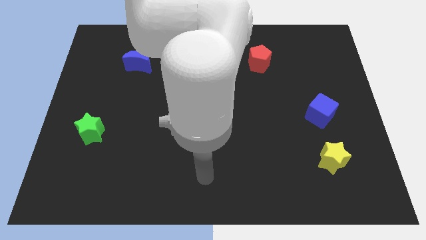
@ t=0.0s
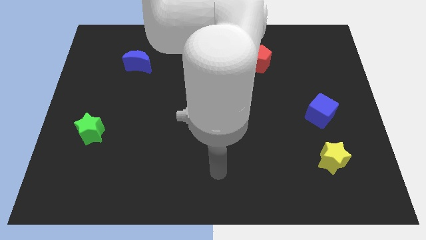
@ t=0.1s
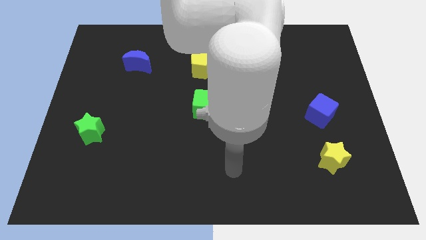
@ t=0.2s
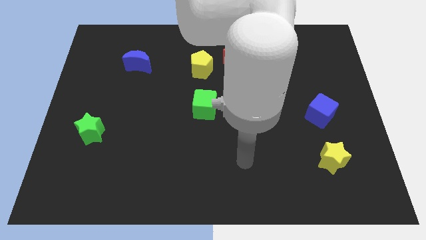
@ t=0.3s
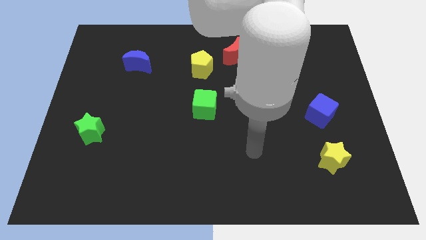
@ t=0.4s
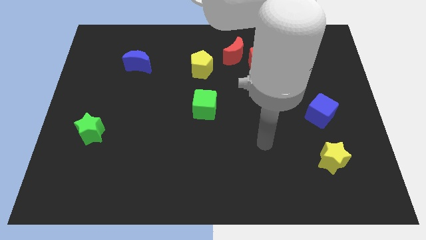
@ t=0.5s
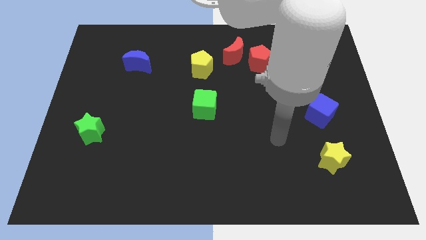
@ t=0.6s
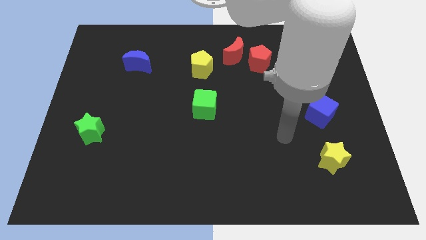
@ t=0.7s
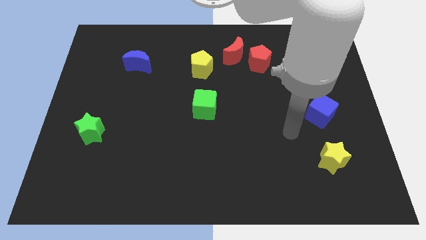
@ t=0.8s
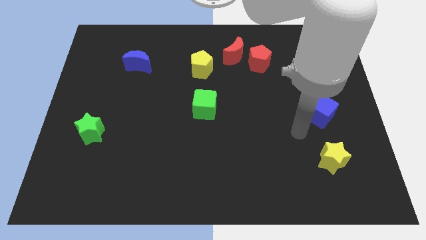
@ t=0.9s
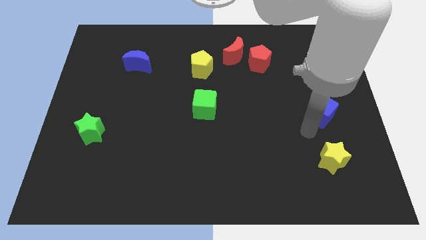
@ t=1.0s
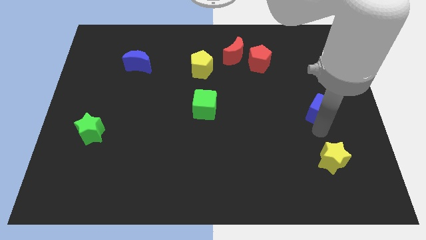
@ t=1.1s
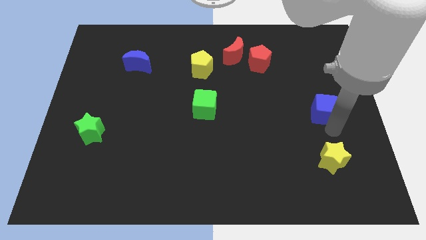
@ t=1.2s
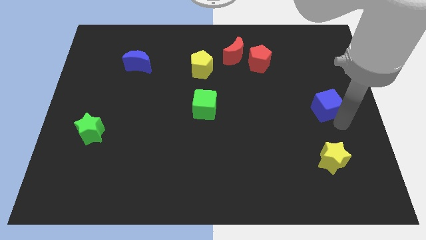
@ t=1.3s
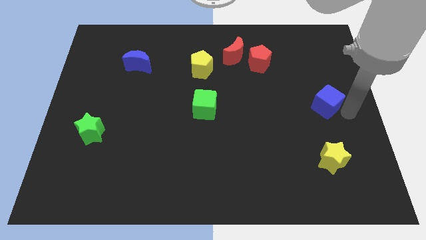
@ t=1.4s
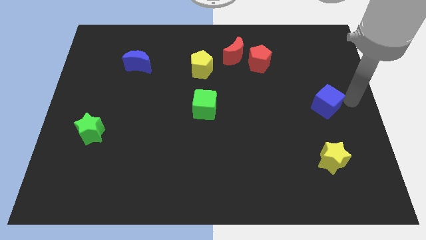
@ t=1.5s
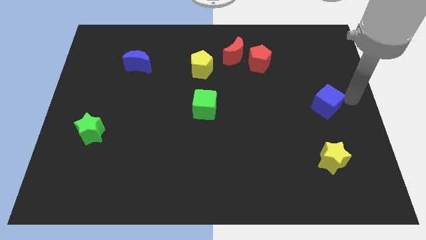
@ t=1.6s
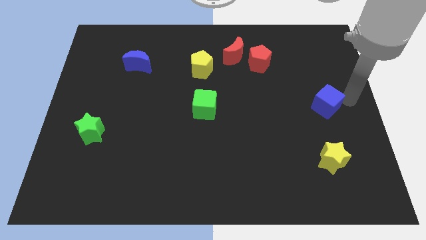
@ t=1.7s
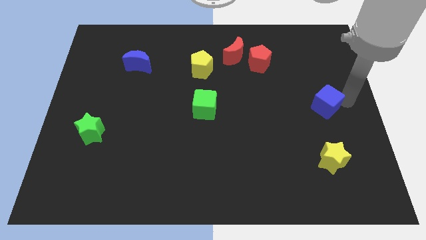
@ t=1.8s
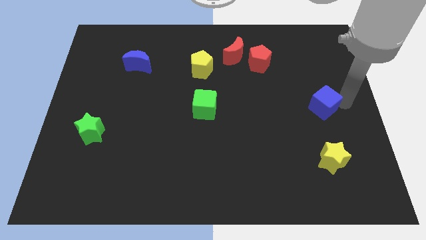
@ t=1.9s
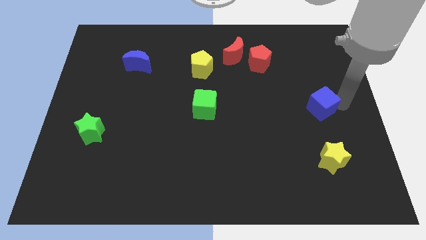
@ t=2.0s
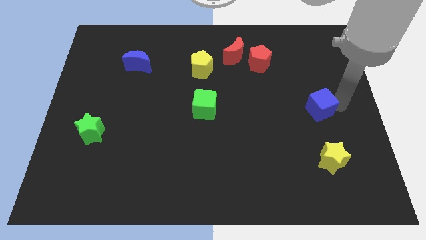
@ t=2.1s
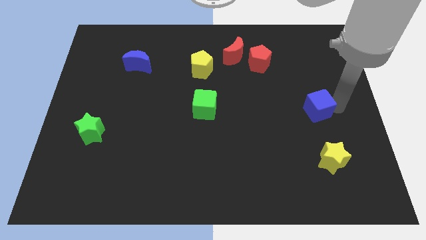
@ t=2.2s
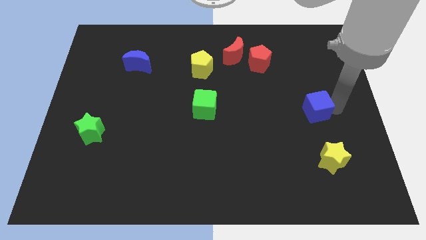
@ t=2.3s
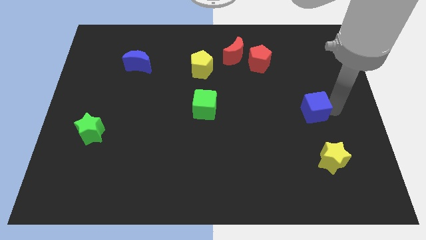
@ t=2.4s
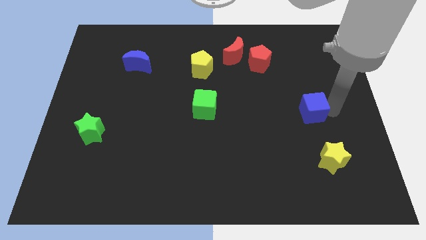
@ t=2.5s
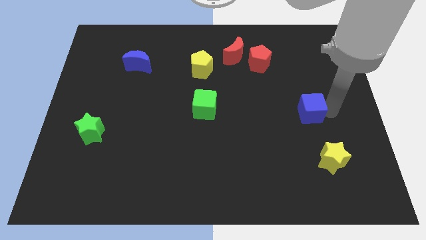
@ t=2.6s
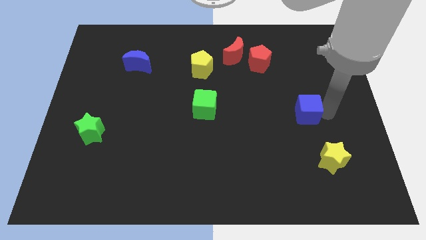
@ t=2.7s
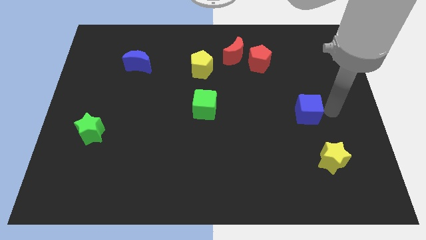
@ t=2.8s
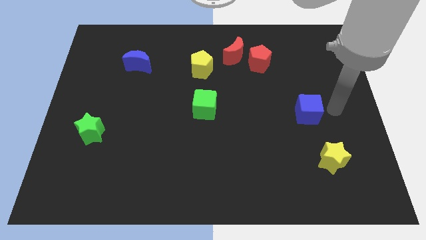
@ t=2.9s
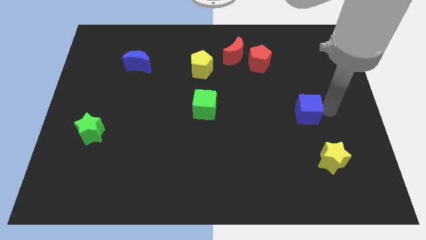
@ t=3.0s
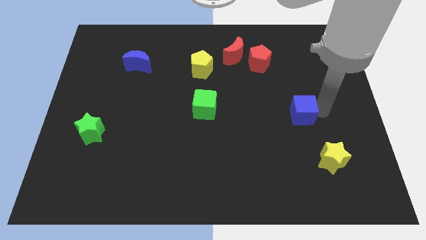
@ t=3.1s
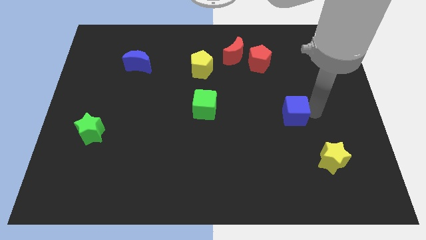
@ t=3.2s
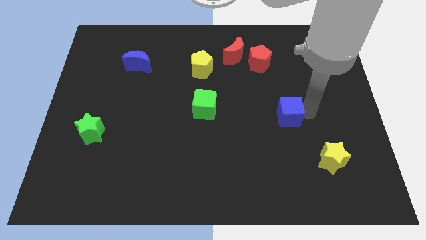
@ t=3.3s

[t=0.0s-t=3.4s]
slide the blue cube slightly to the left

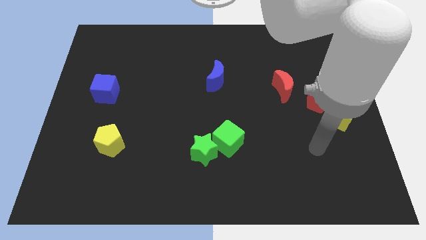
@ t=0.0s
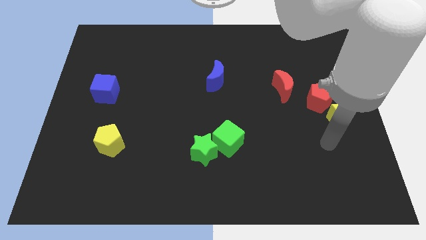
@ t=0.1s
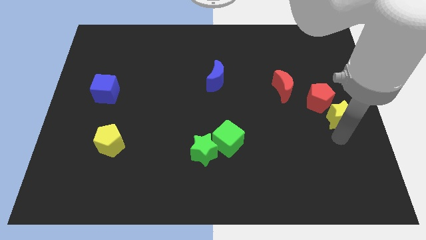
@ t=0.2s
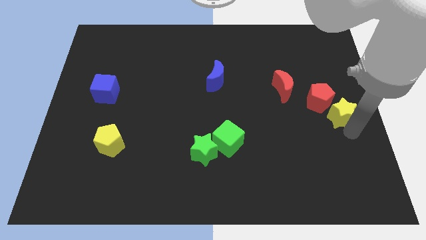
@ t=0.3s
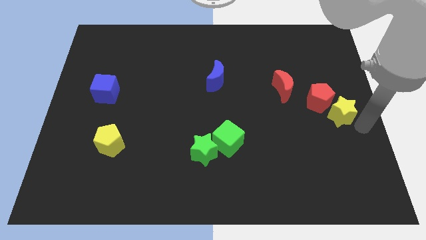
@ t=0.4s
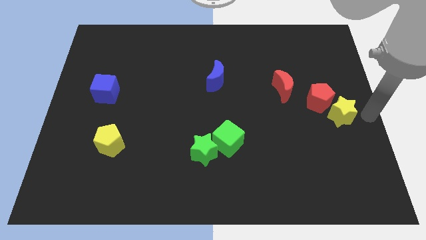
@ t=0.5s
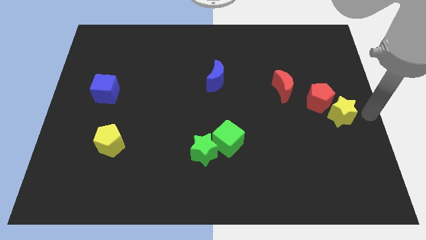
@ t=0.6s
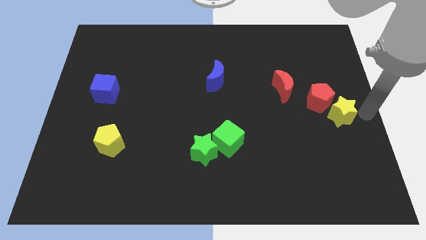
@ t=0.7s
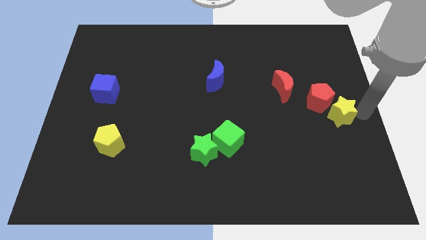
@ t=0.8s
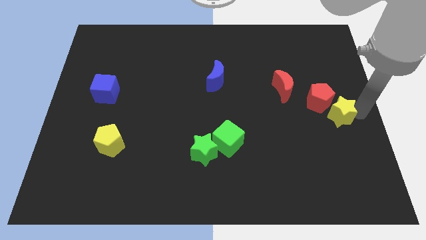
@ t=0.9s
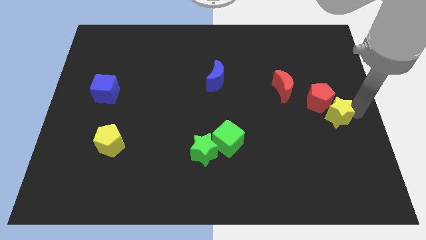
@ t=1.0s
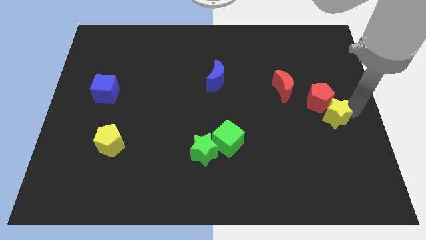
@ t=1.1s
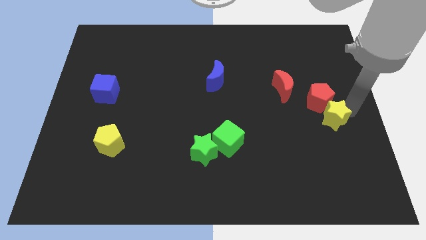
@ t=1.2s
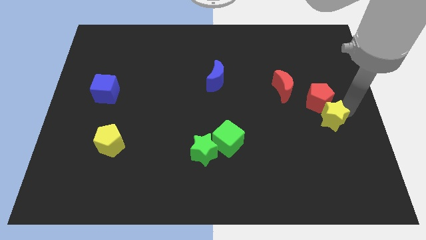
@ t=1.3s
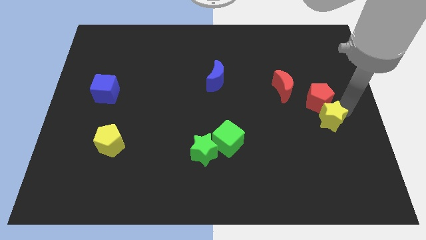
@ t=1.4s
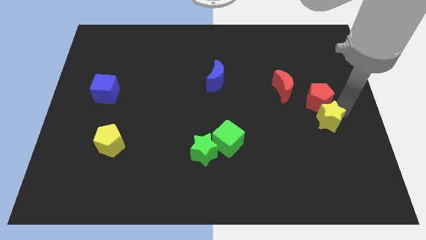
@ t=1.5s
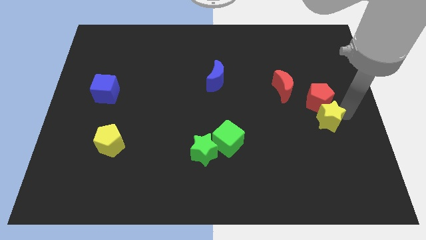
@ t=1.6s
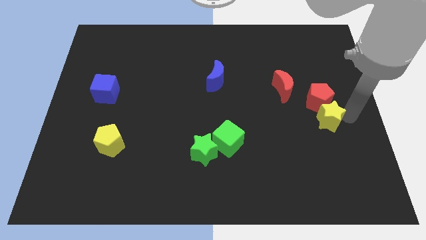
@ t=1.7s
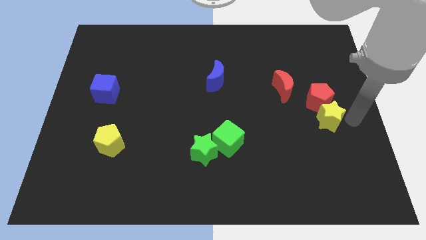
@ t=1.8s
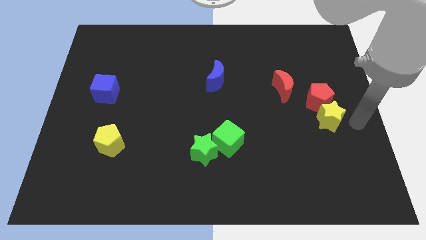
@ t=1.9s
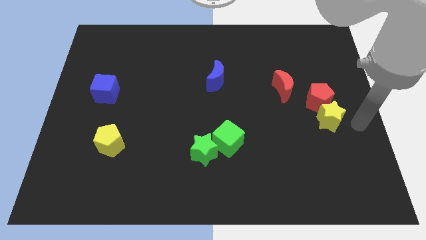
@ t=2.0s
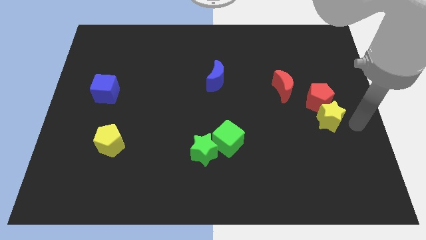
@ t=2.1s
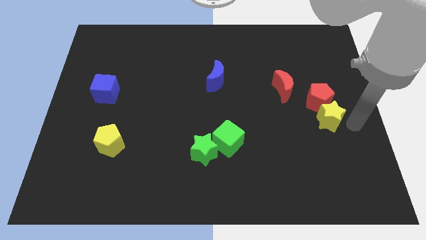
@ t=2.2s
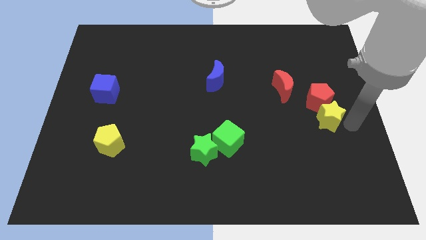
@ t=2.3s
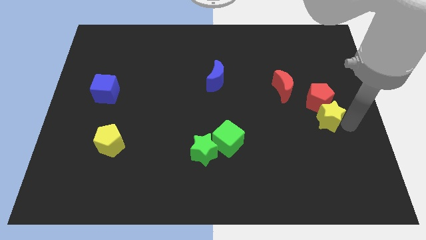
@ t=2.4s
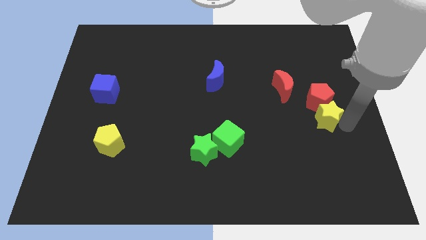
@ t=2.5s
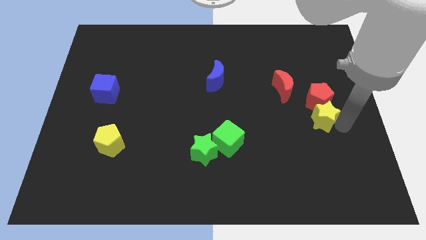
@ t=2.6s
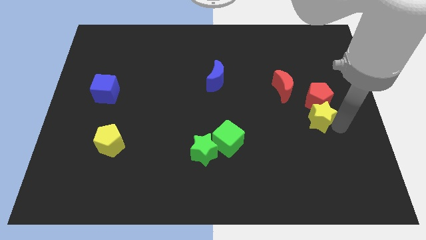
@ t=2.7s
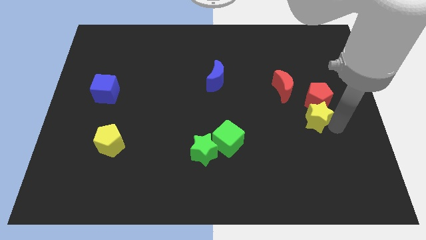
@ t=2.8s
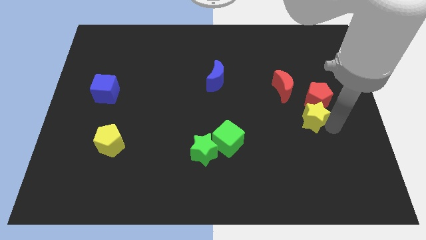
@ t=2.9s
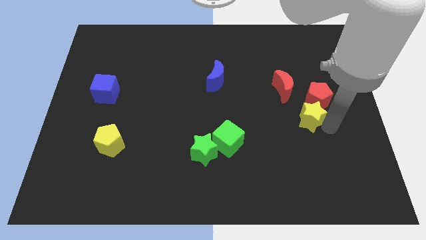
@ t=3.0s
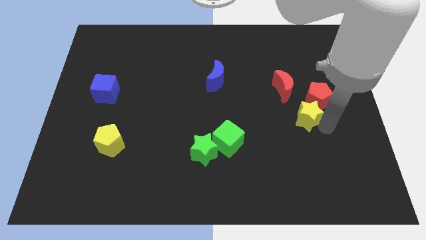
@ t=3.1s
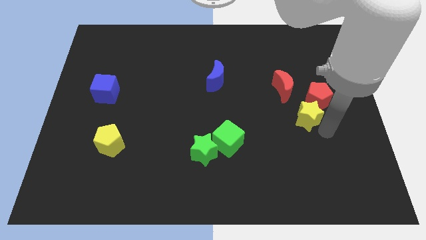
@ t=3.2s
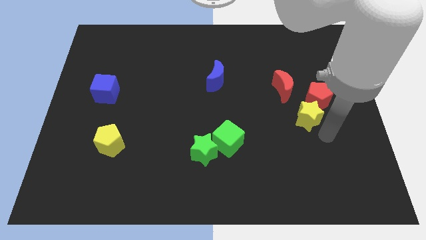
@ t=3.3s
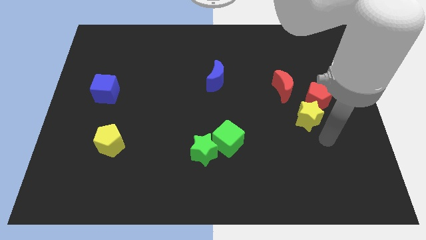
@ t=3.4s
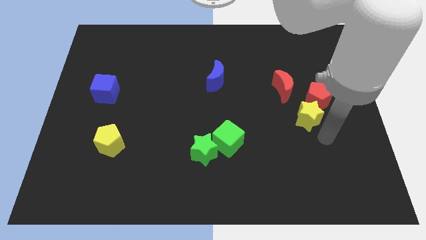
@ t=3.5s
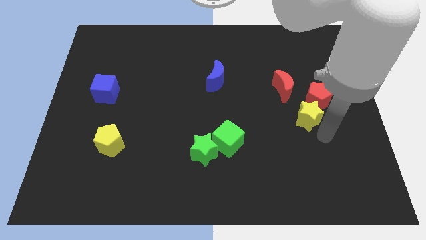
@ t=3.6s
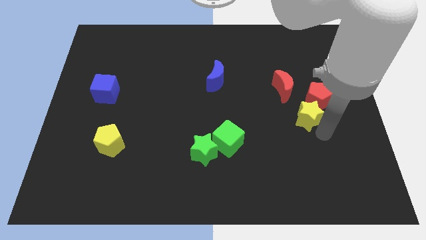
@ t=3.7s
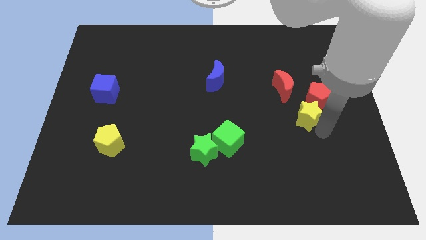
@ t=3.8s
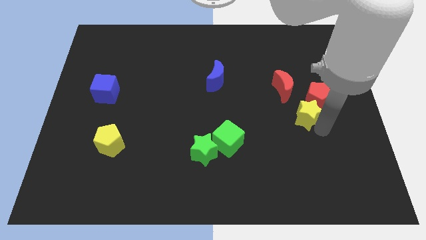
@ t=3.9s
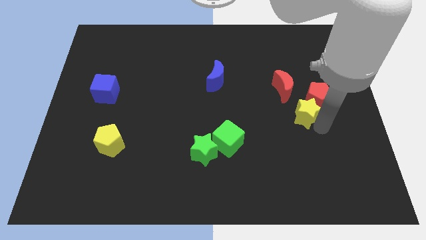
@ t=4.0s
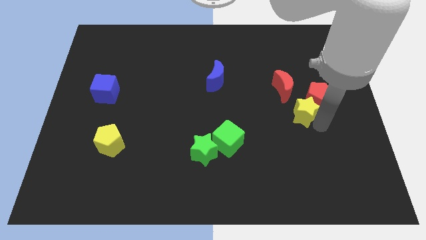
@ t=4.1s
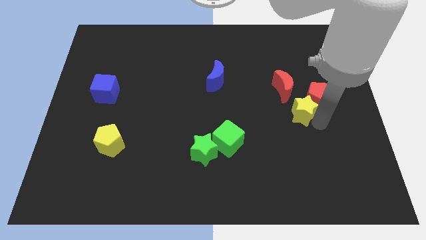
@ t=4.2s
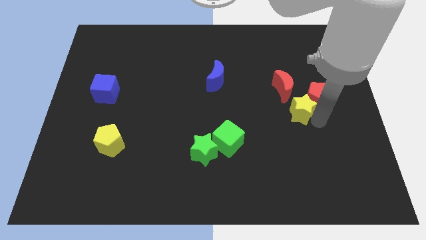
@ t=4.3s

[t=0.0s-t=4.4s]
slightly move the yellow star upwards and then left

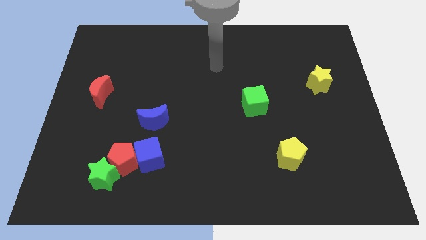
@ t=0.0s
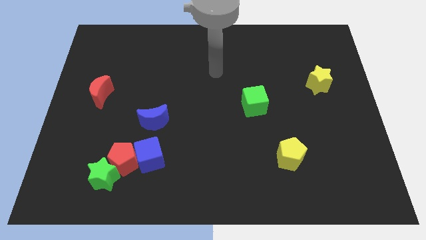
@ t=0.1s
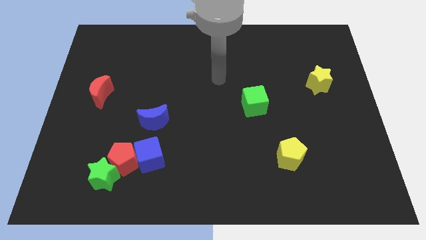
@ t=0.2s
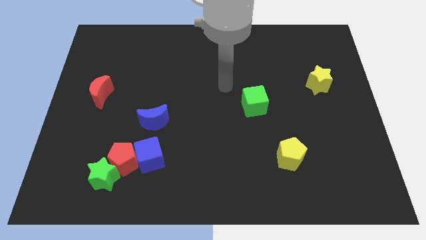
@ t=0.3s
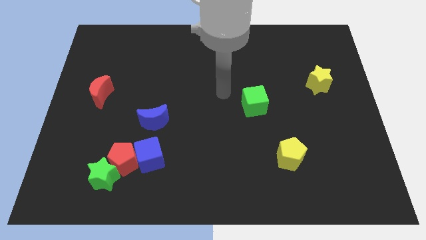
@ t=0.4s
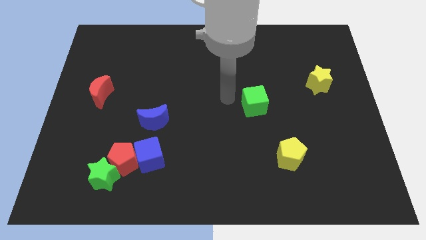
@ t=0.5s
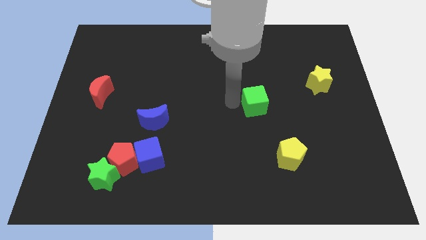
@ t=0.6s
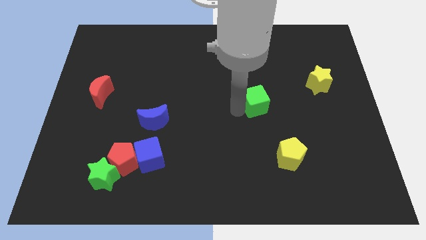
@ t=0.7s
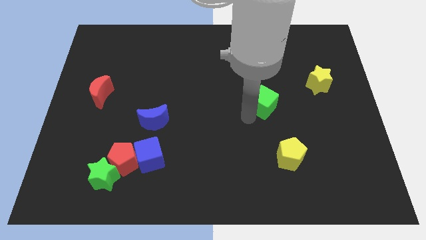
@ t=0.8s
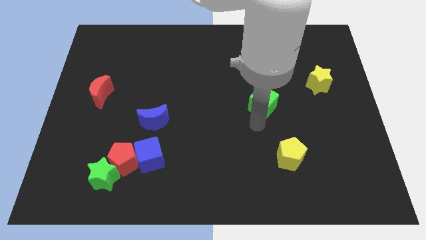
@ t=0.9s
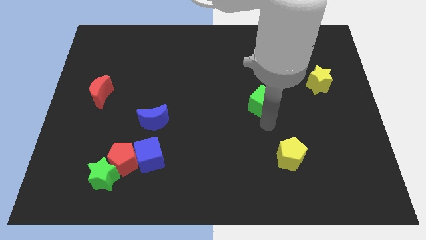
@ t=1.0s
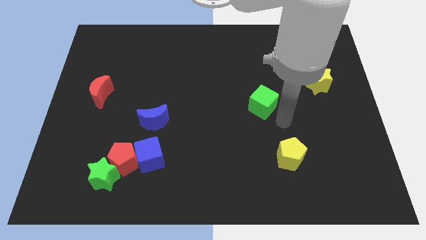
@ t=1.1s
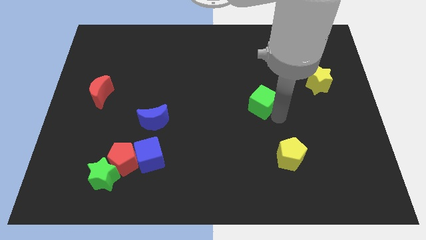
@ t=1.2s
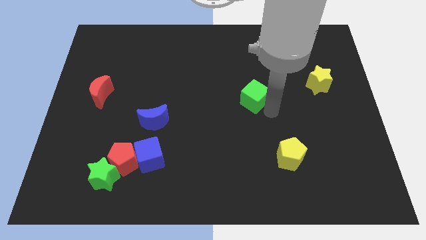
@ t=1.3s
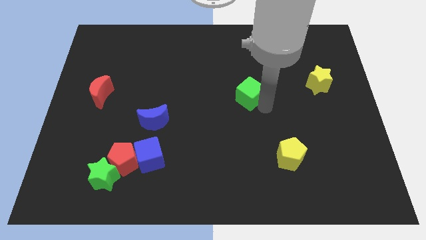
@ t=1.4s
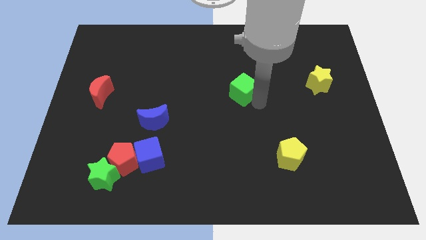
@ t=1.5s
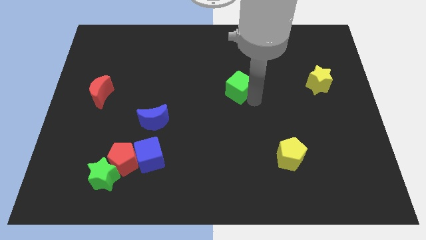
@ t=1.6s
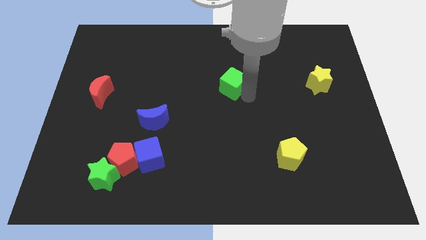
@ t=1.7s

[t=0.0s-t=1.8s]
push the green cube a bit upwards and left diagonally
